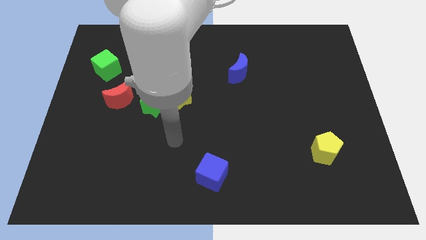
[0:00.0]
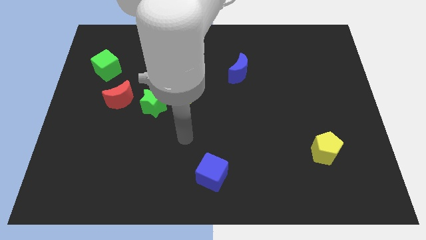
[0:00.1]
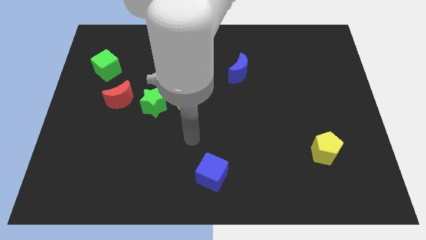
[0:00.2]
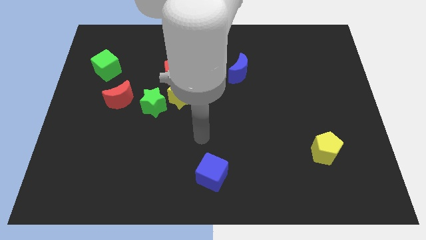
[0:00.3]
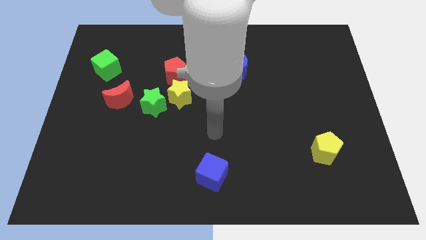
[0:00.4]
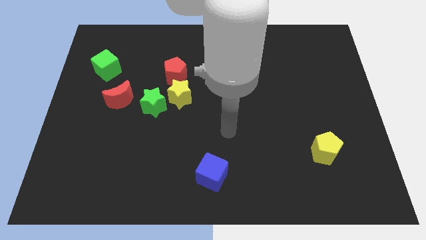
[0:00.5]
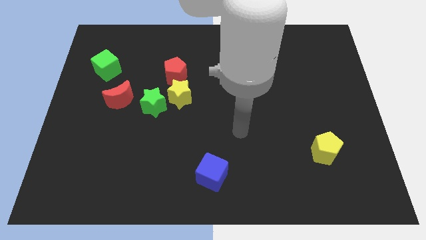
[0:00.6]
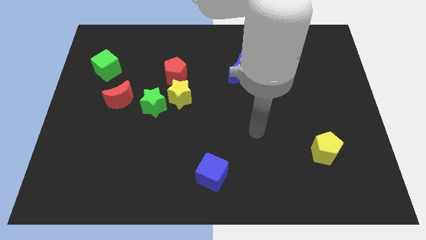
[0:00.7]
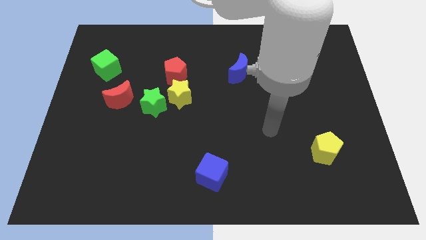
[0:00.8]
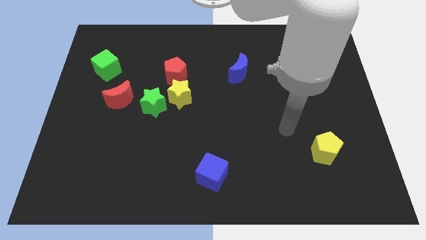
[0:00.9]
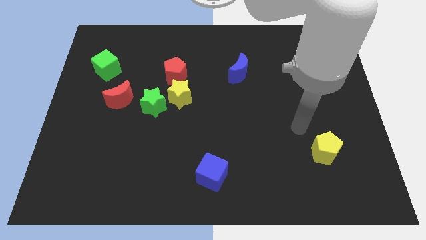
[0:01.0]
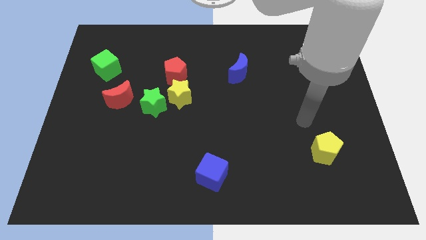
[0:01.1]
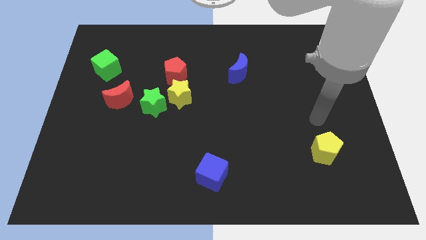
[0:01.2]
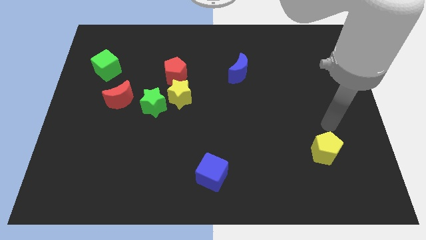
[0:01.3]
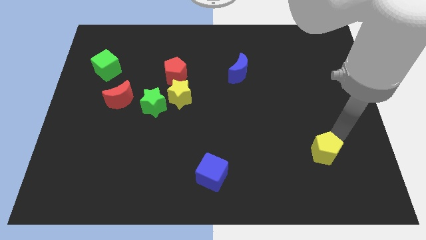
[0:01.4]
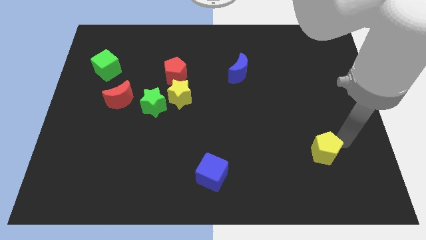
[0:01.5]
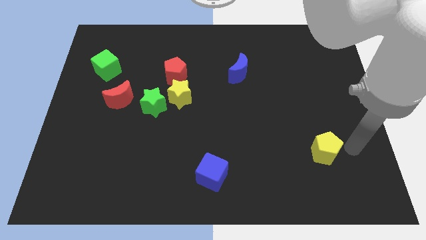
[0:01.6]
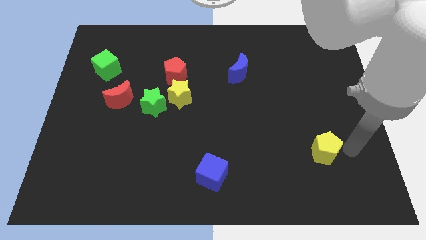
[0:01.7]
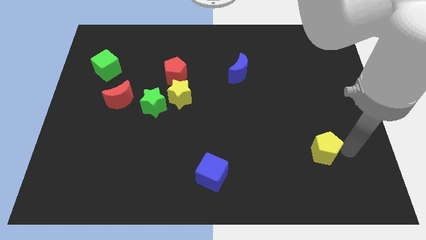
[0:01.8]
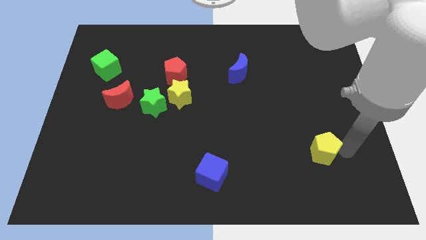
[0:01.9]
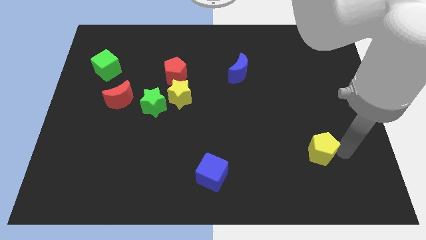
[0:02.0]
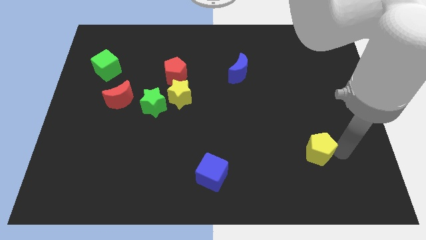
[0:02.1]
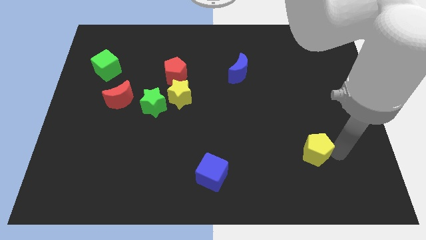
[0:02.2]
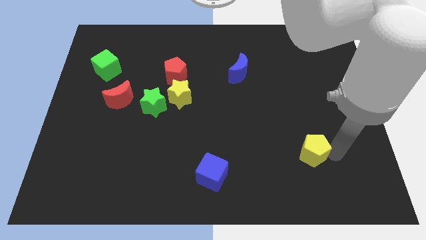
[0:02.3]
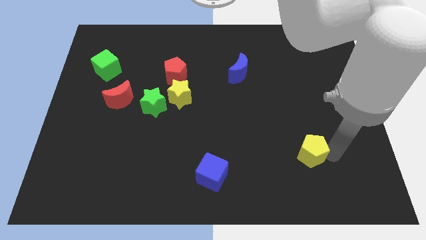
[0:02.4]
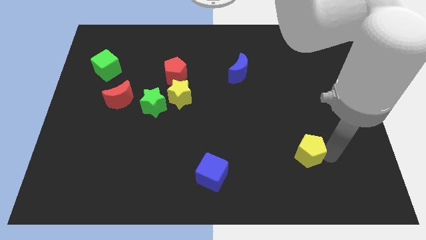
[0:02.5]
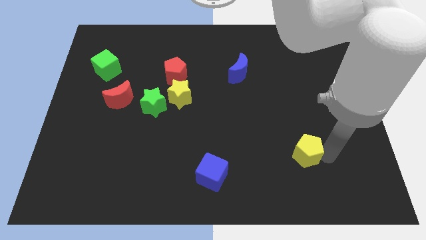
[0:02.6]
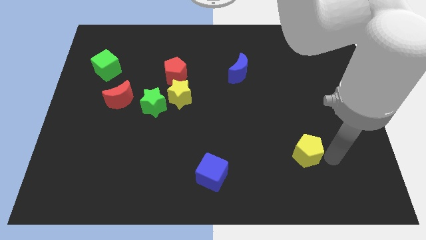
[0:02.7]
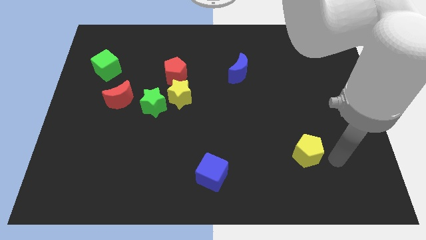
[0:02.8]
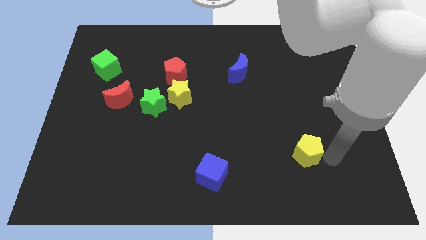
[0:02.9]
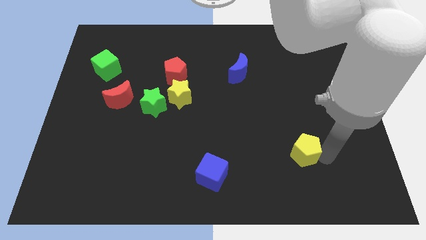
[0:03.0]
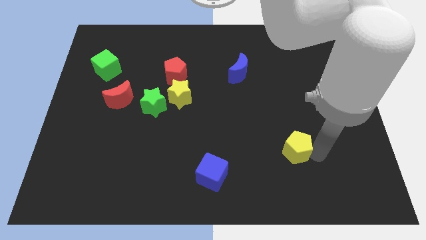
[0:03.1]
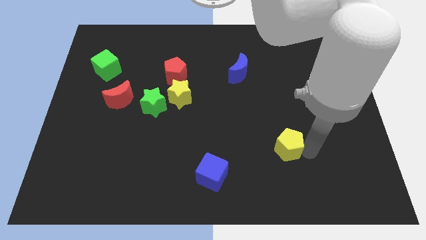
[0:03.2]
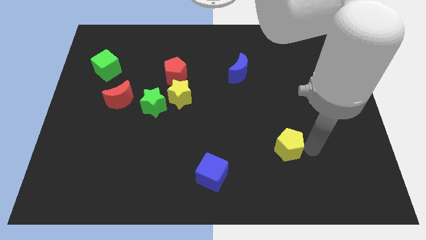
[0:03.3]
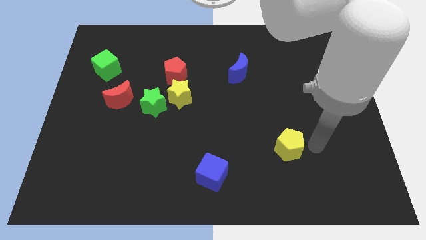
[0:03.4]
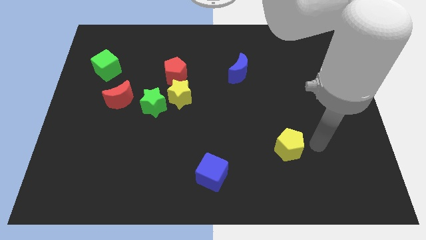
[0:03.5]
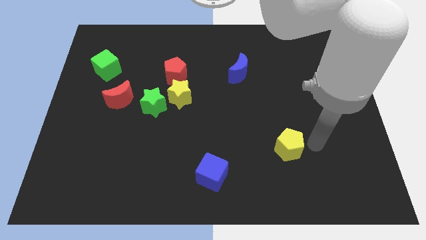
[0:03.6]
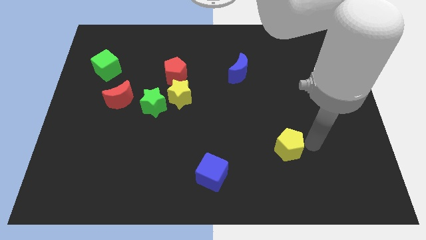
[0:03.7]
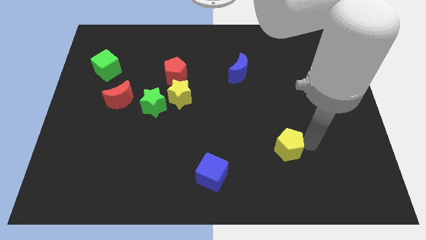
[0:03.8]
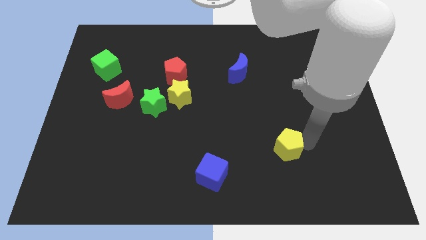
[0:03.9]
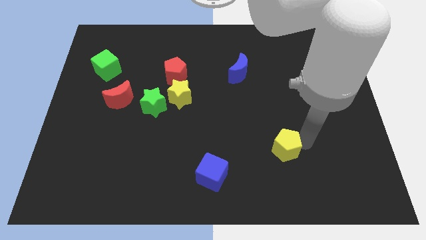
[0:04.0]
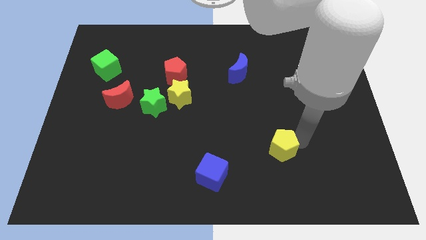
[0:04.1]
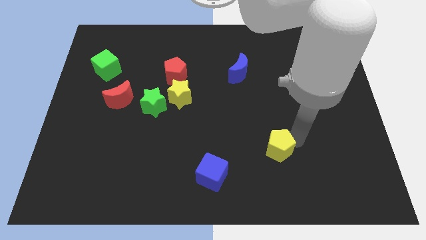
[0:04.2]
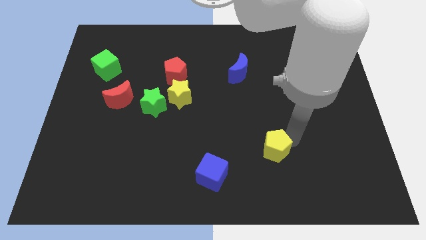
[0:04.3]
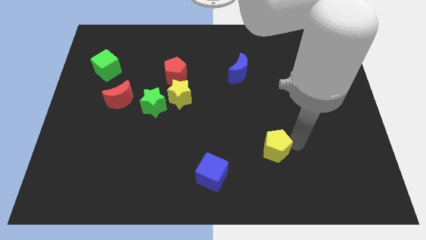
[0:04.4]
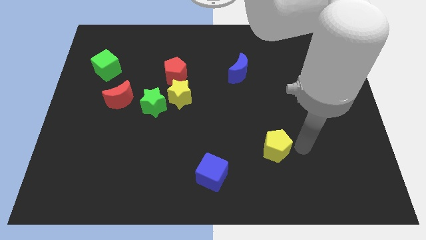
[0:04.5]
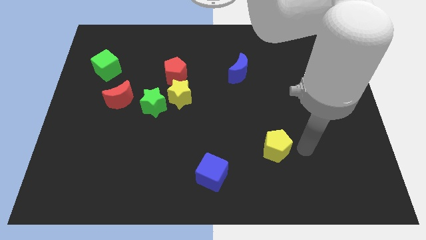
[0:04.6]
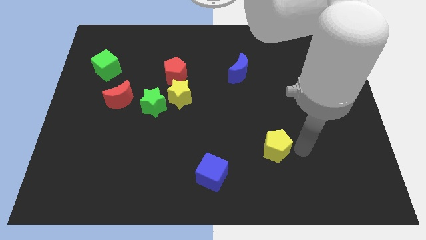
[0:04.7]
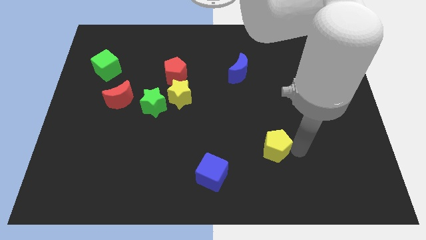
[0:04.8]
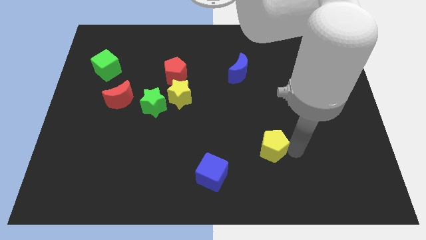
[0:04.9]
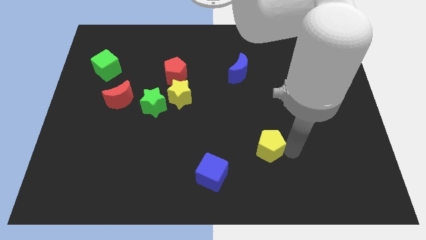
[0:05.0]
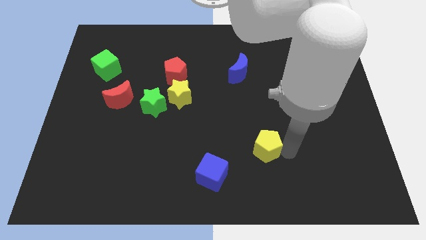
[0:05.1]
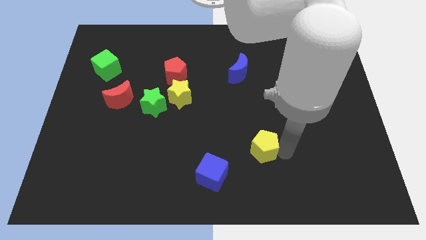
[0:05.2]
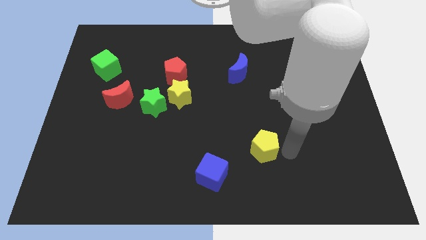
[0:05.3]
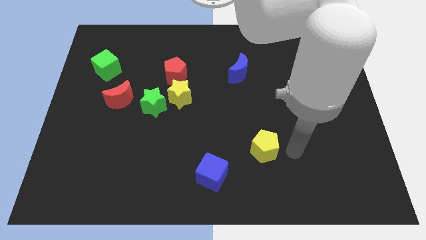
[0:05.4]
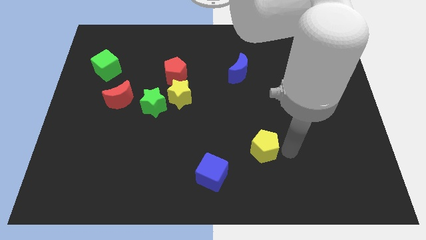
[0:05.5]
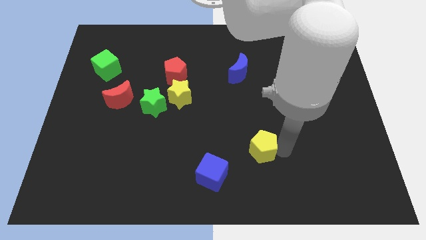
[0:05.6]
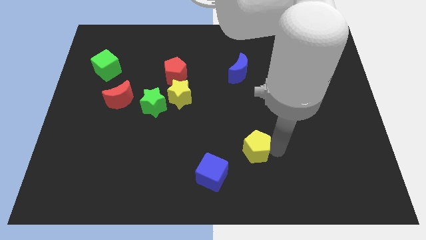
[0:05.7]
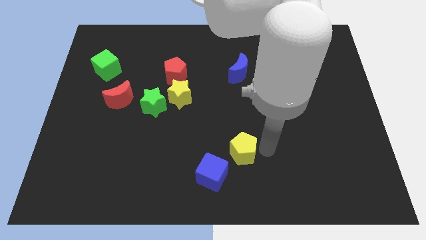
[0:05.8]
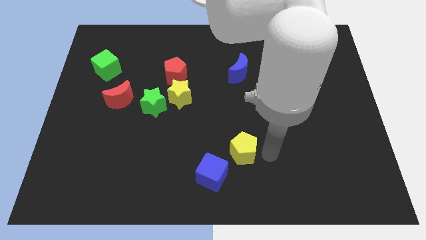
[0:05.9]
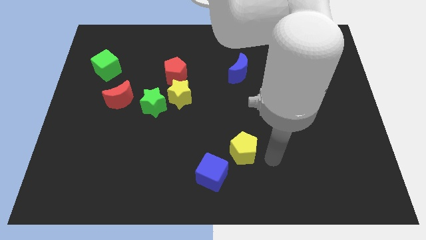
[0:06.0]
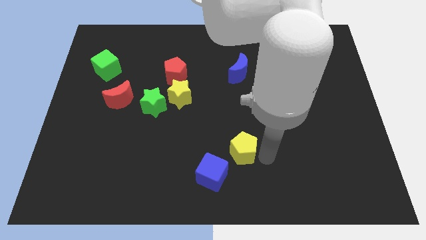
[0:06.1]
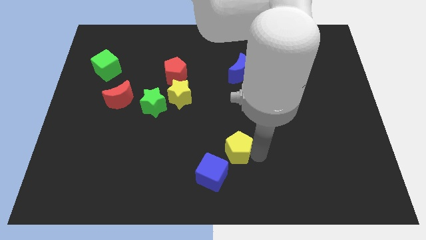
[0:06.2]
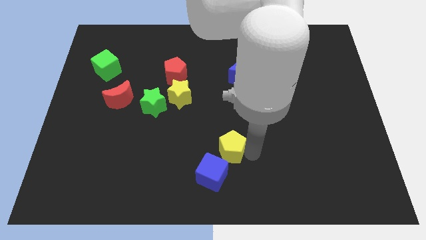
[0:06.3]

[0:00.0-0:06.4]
move the yellow pentagon left

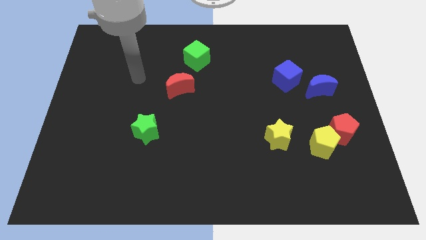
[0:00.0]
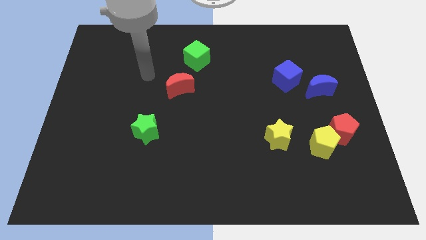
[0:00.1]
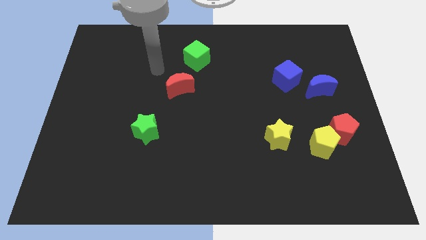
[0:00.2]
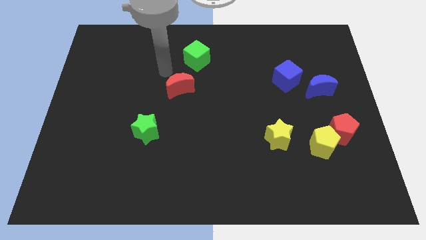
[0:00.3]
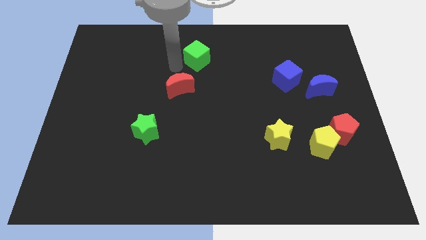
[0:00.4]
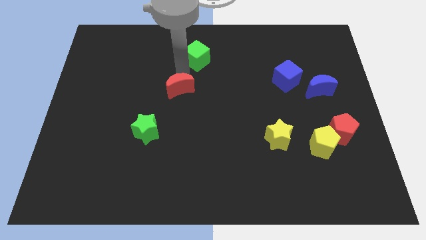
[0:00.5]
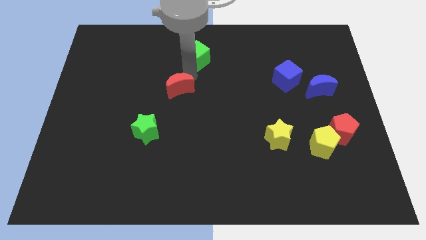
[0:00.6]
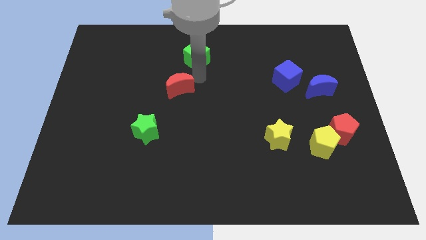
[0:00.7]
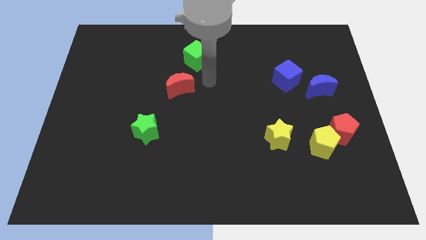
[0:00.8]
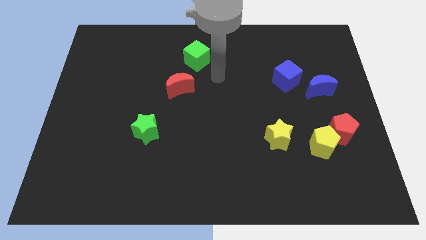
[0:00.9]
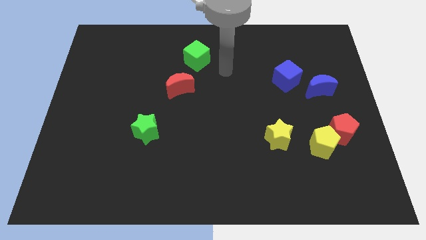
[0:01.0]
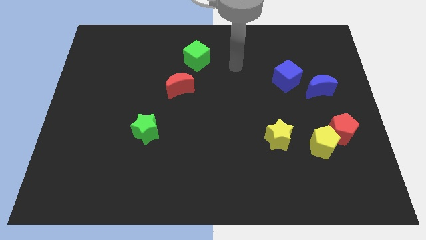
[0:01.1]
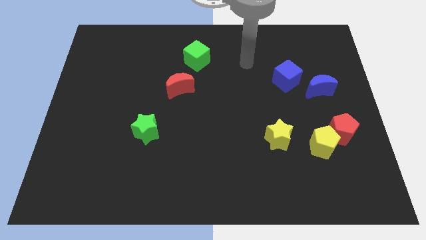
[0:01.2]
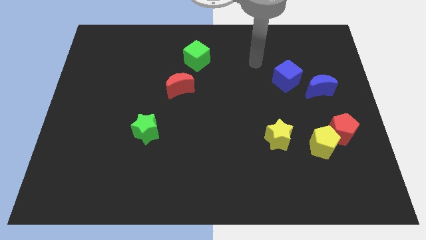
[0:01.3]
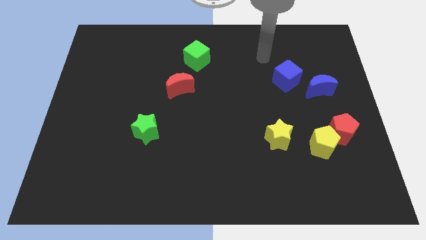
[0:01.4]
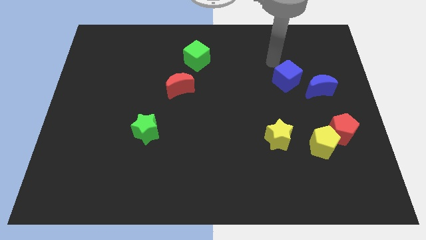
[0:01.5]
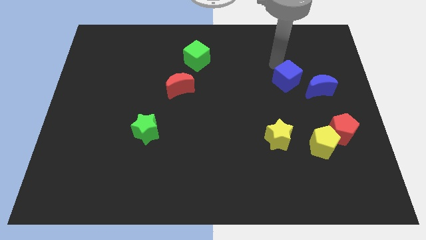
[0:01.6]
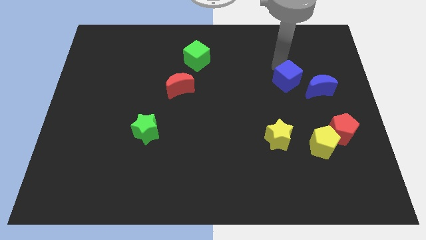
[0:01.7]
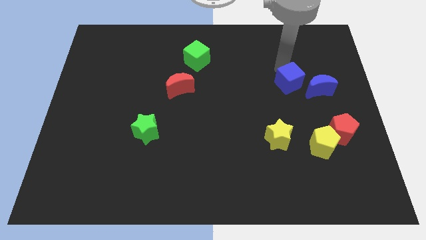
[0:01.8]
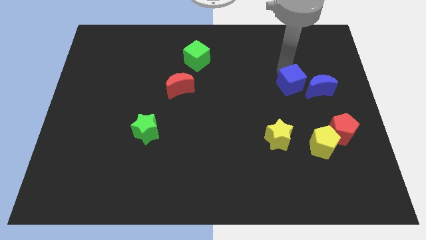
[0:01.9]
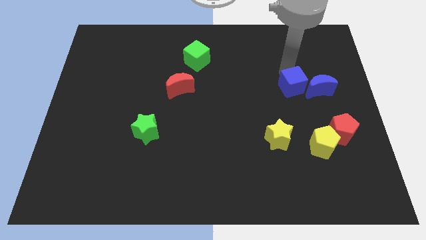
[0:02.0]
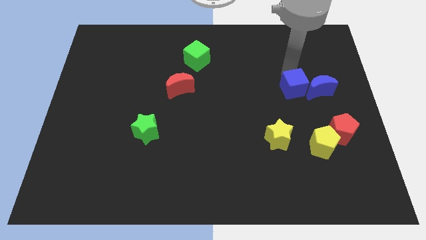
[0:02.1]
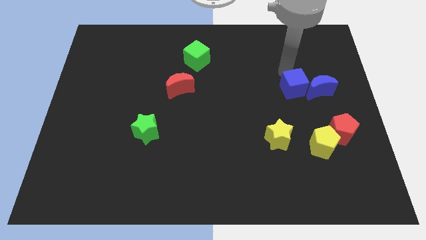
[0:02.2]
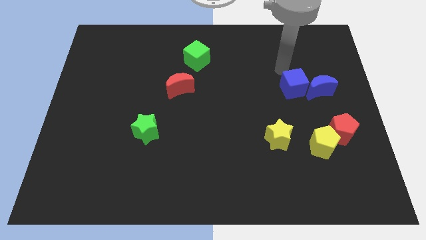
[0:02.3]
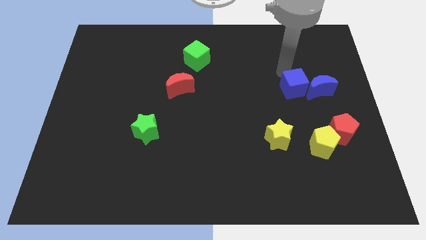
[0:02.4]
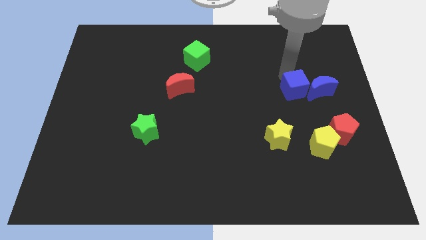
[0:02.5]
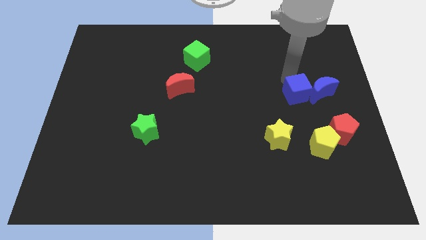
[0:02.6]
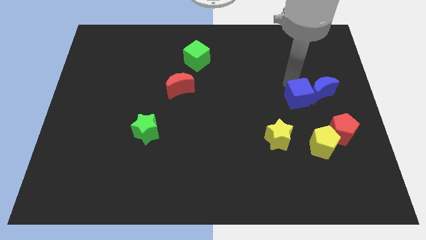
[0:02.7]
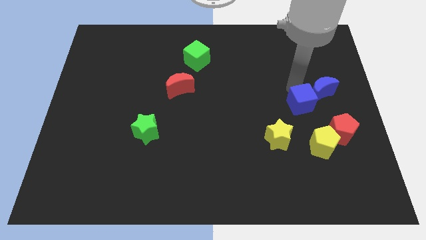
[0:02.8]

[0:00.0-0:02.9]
move the blue cube somewhat down
